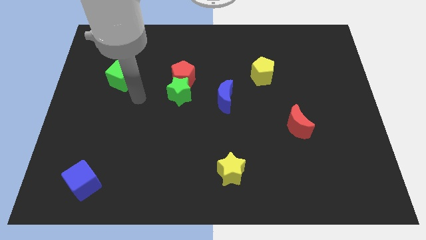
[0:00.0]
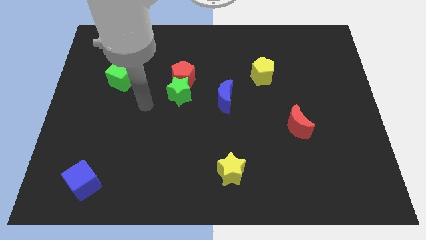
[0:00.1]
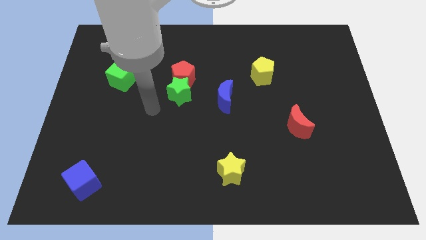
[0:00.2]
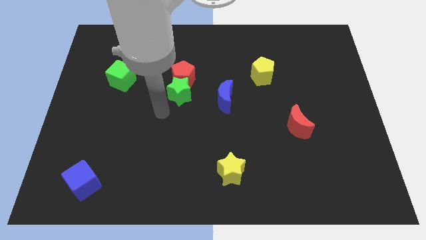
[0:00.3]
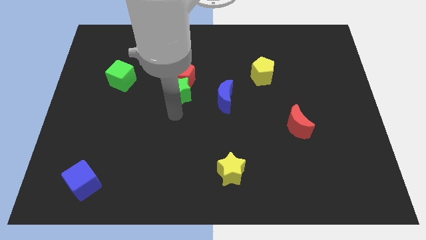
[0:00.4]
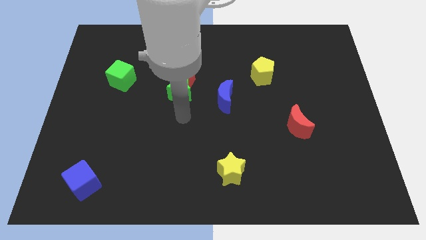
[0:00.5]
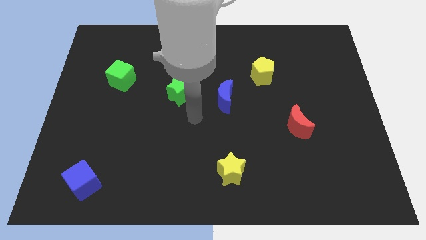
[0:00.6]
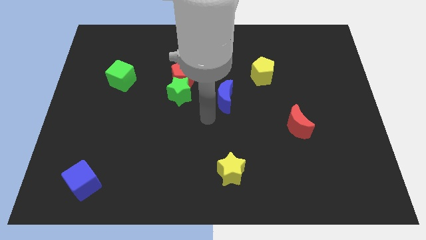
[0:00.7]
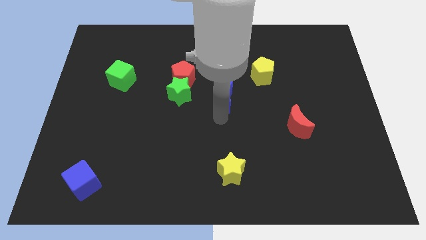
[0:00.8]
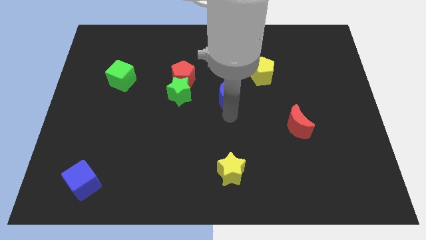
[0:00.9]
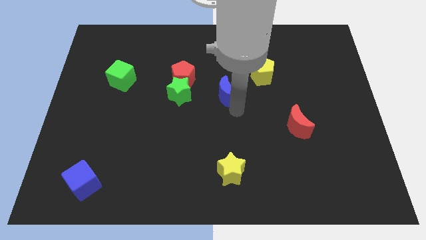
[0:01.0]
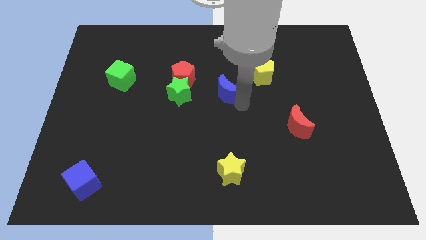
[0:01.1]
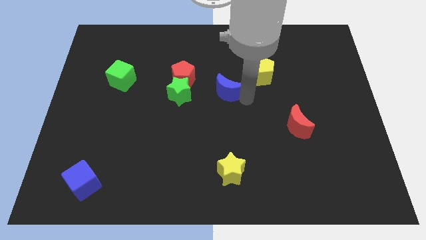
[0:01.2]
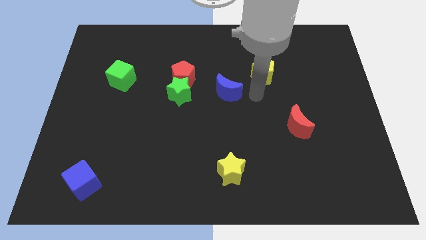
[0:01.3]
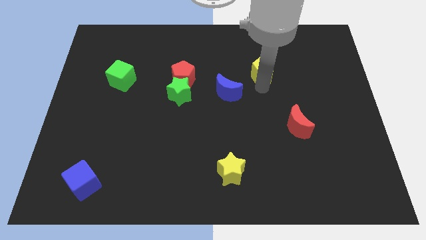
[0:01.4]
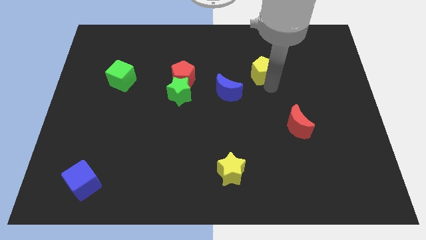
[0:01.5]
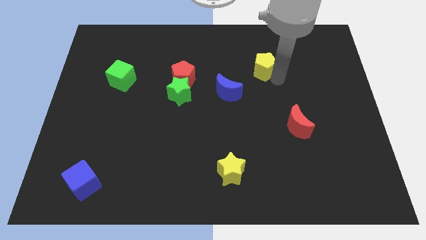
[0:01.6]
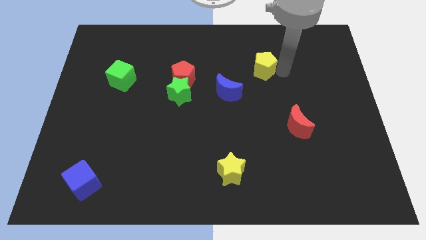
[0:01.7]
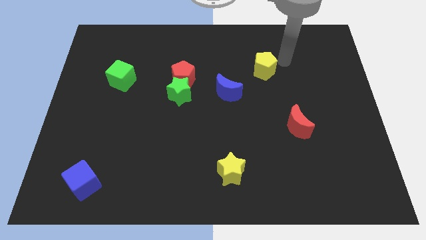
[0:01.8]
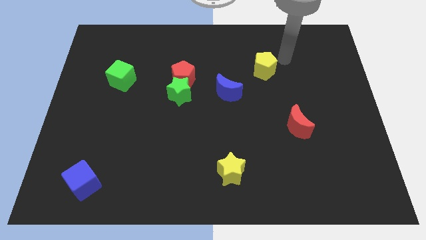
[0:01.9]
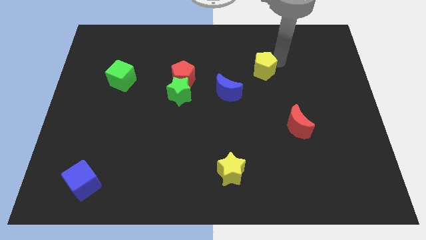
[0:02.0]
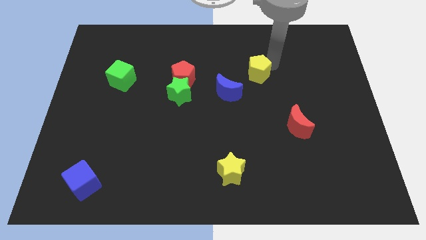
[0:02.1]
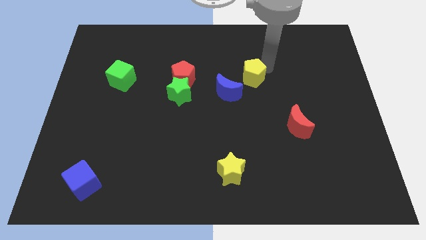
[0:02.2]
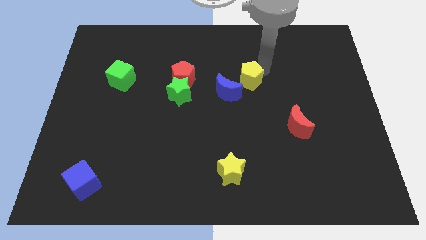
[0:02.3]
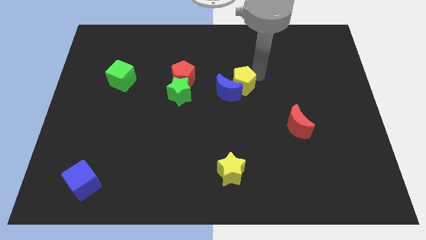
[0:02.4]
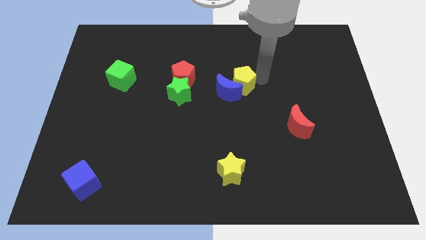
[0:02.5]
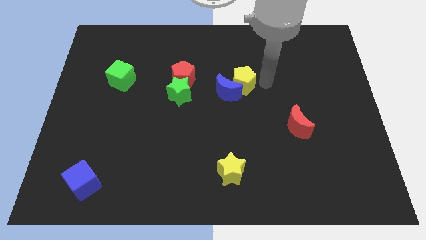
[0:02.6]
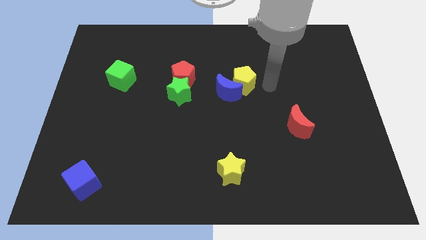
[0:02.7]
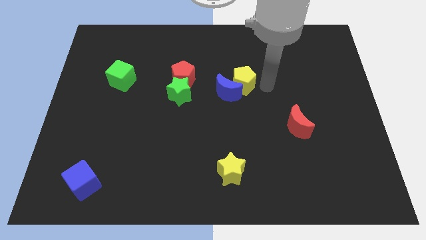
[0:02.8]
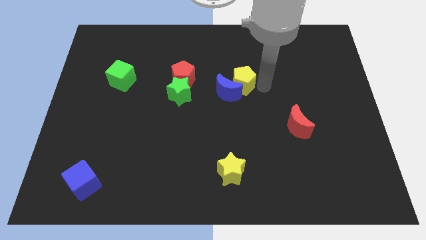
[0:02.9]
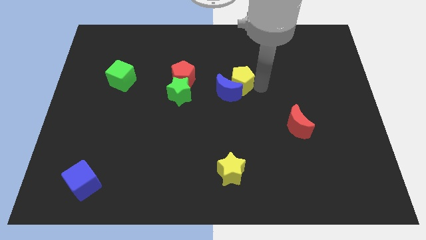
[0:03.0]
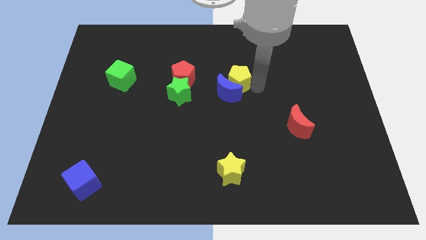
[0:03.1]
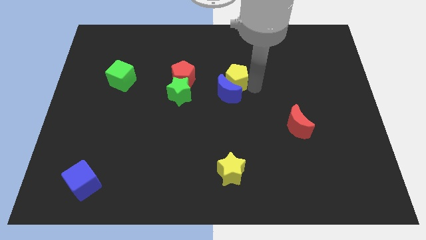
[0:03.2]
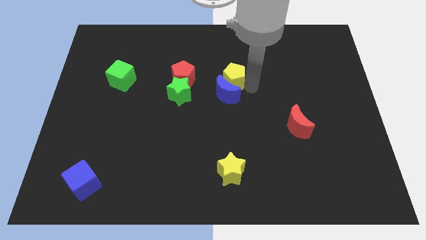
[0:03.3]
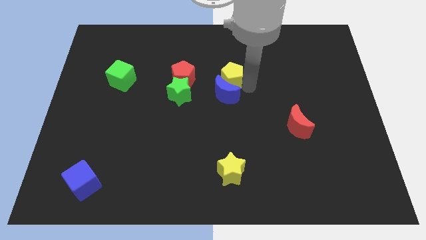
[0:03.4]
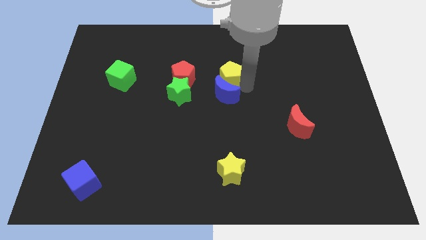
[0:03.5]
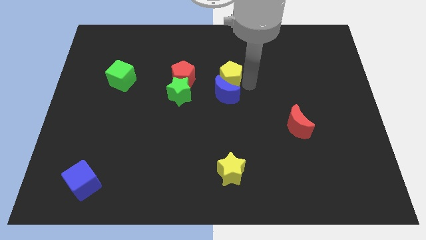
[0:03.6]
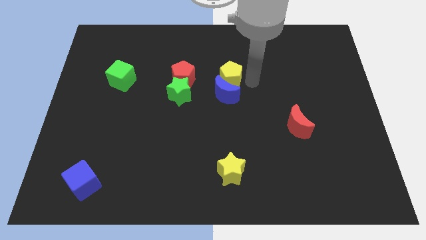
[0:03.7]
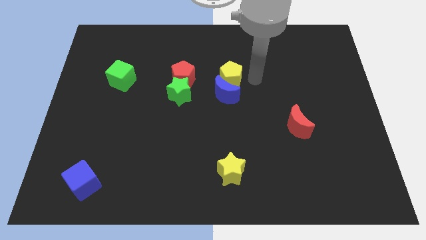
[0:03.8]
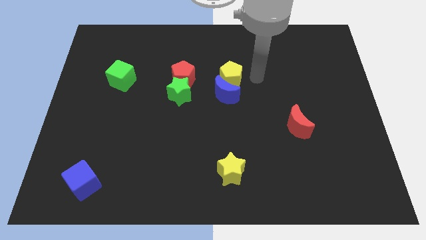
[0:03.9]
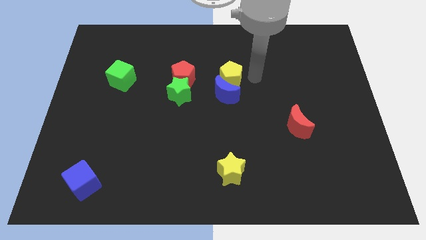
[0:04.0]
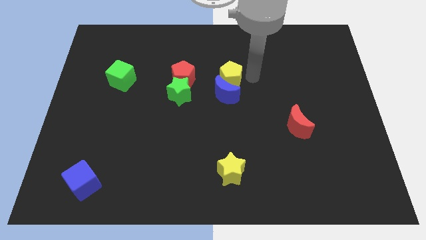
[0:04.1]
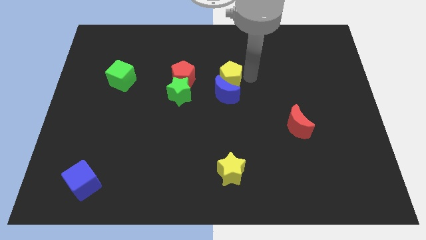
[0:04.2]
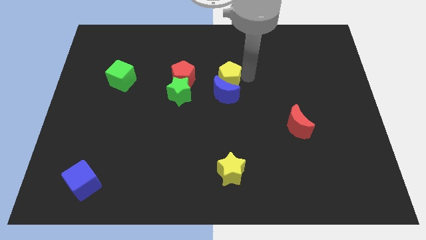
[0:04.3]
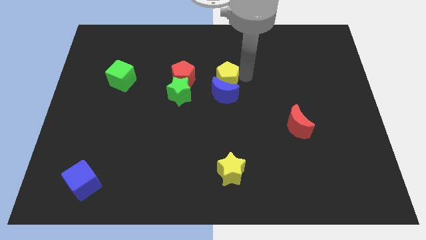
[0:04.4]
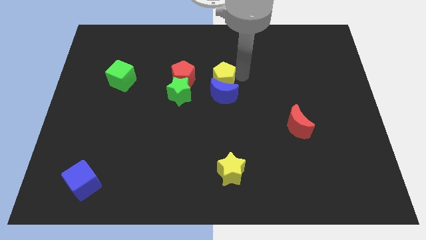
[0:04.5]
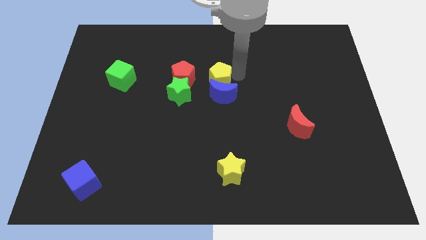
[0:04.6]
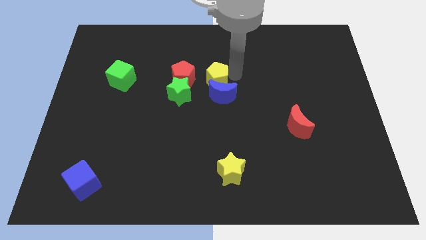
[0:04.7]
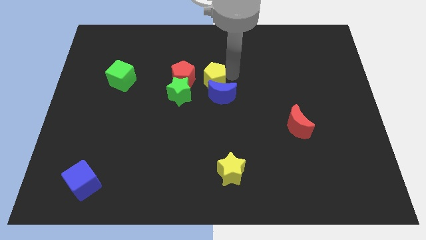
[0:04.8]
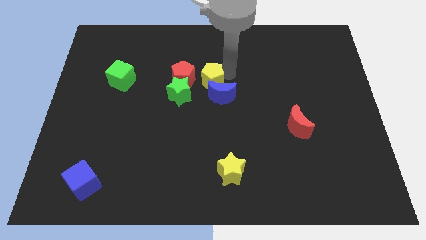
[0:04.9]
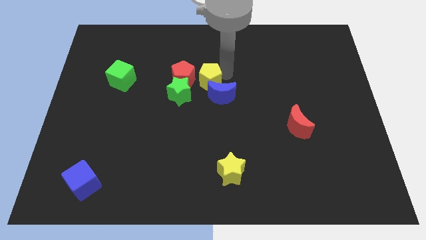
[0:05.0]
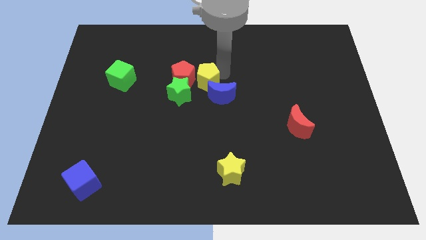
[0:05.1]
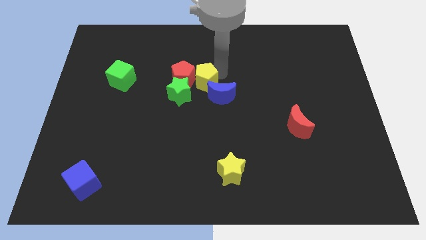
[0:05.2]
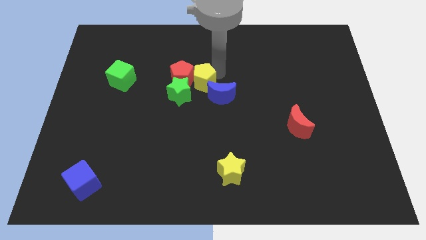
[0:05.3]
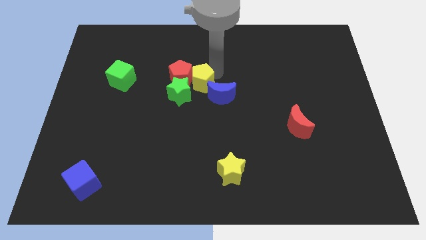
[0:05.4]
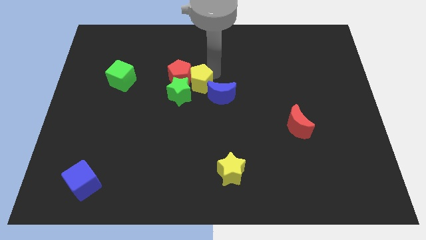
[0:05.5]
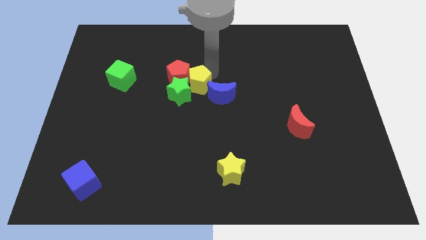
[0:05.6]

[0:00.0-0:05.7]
put the yellow pentagon close to the green star

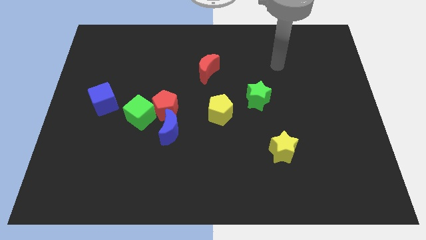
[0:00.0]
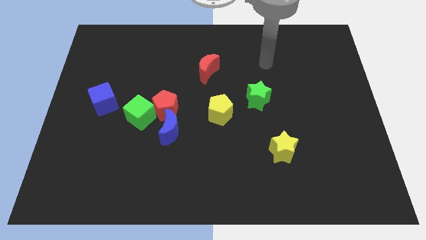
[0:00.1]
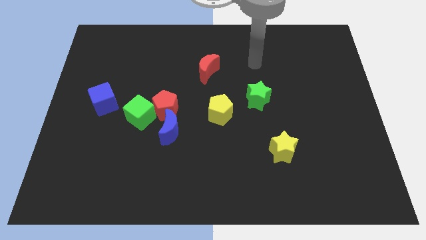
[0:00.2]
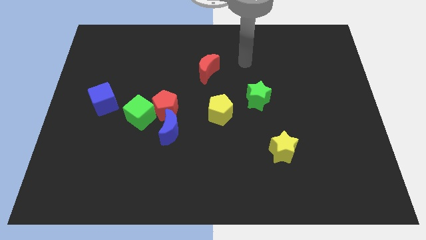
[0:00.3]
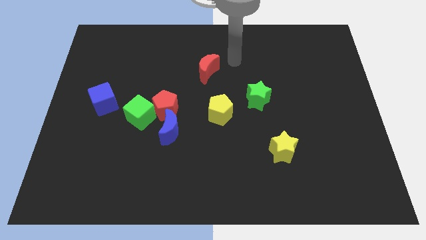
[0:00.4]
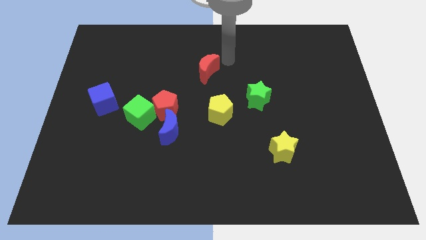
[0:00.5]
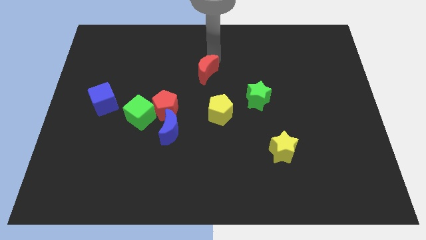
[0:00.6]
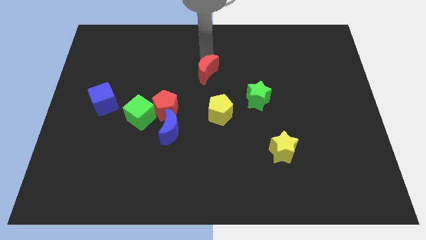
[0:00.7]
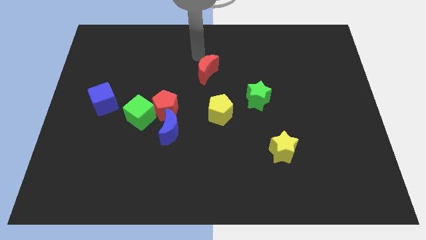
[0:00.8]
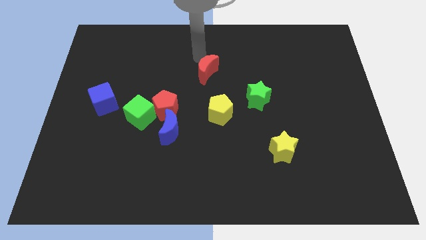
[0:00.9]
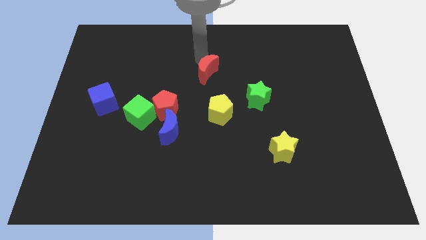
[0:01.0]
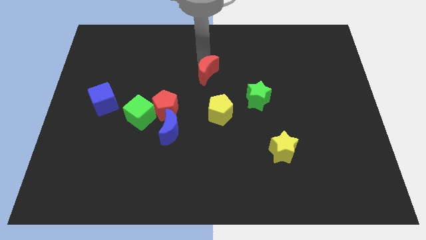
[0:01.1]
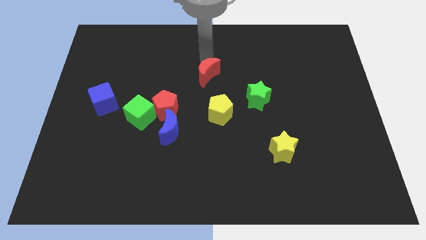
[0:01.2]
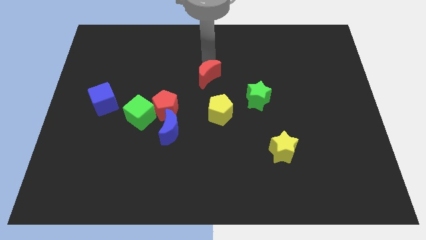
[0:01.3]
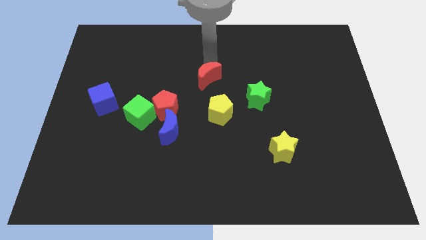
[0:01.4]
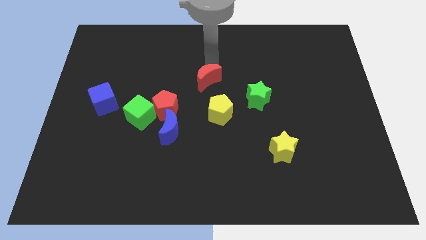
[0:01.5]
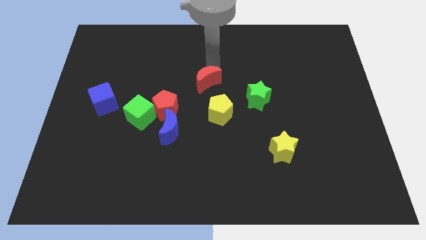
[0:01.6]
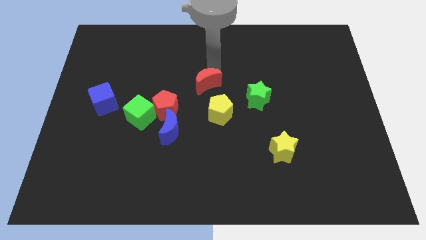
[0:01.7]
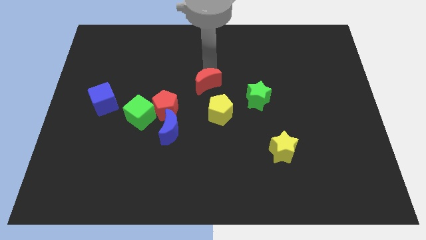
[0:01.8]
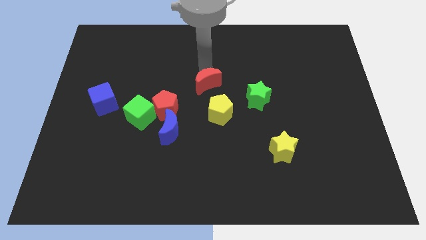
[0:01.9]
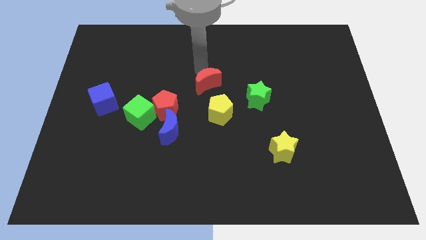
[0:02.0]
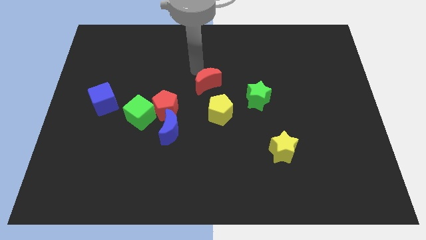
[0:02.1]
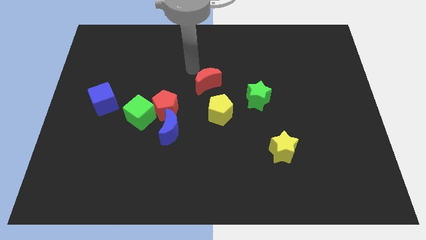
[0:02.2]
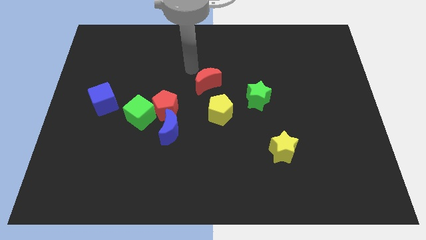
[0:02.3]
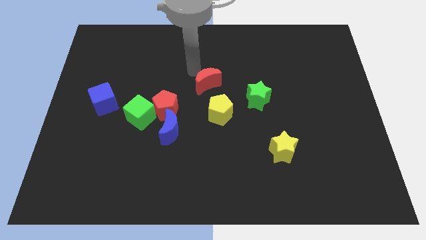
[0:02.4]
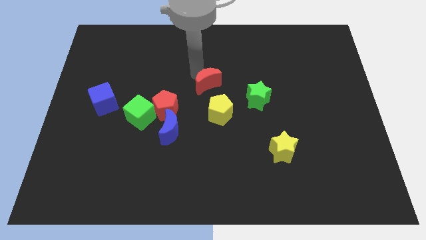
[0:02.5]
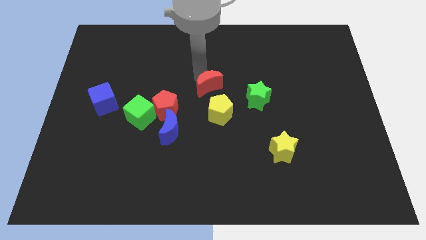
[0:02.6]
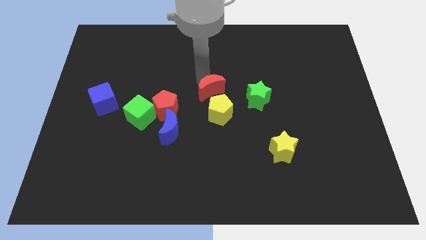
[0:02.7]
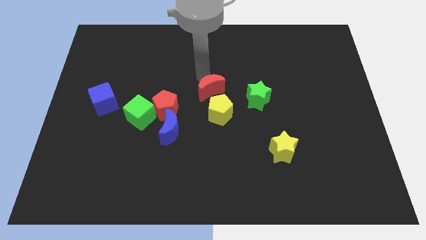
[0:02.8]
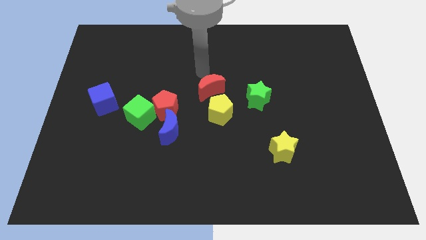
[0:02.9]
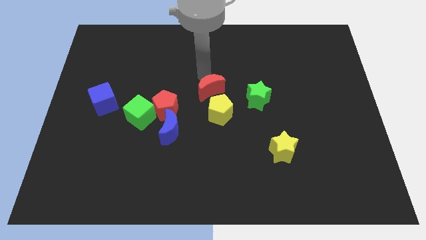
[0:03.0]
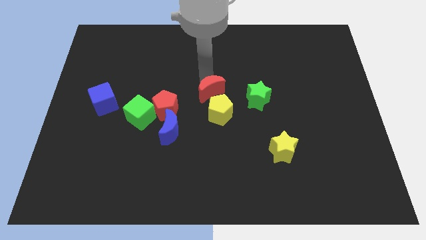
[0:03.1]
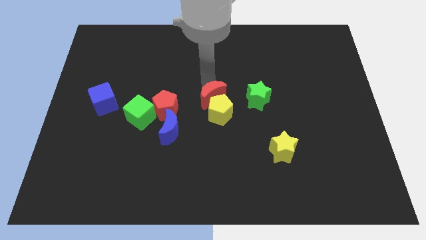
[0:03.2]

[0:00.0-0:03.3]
slide the red moon close to the yellow pentagon
